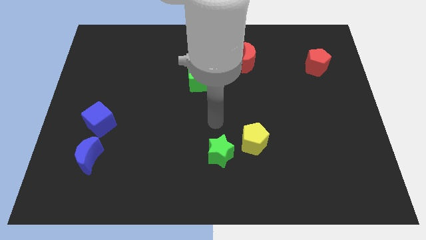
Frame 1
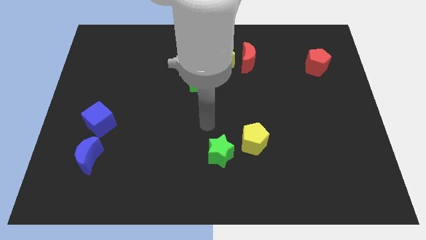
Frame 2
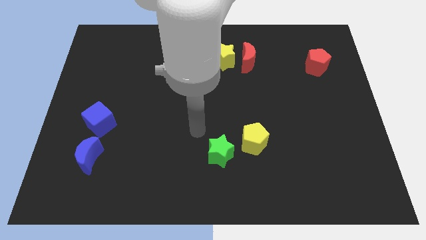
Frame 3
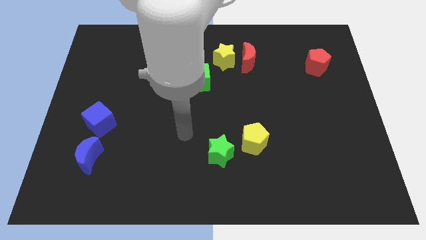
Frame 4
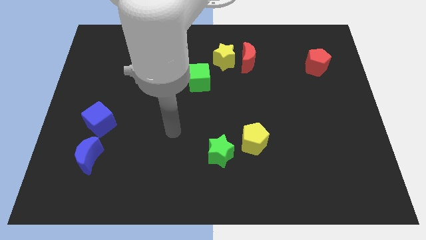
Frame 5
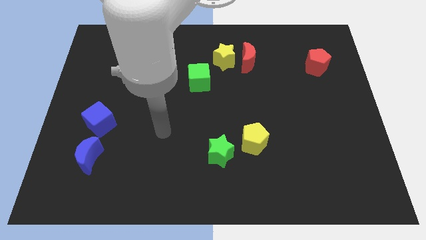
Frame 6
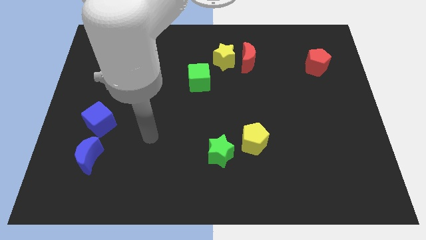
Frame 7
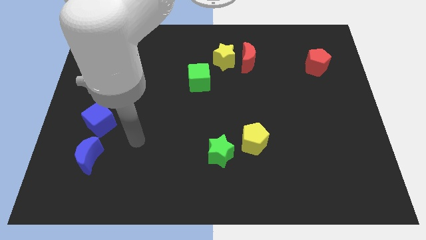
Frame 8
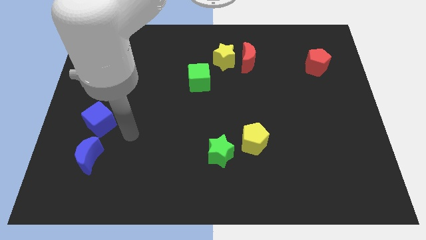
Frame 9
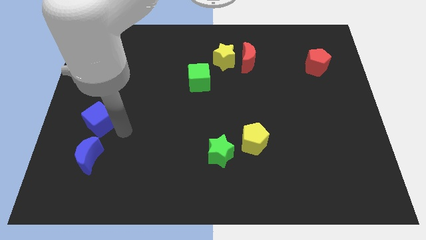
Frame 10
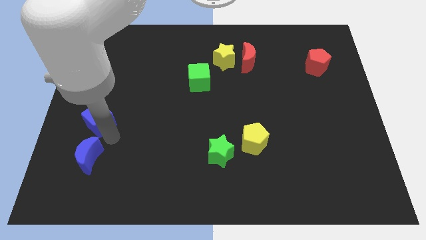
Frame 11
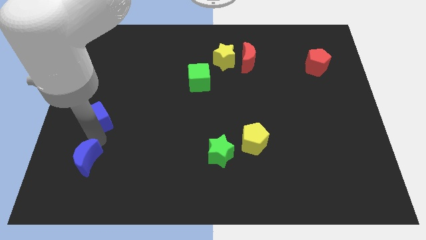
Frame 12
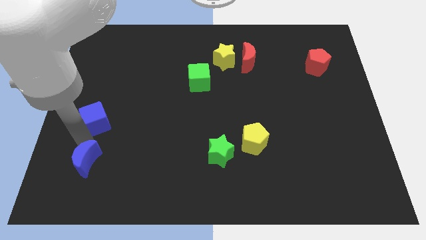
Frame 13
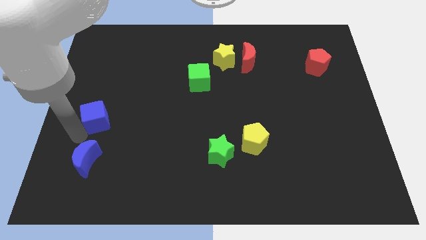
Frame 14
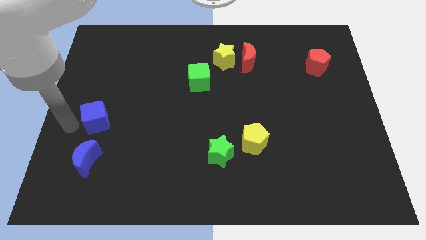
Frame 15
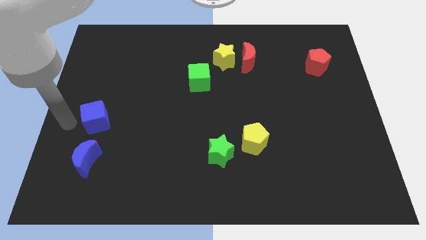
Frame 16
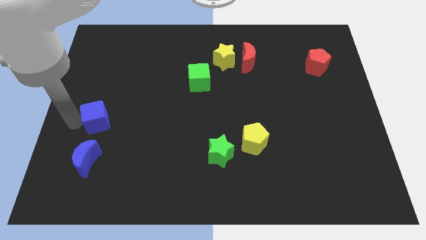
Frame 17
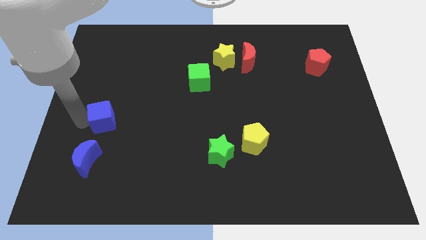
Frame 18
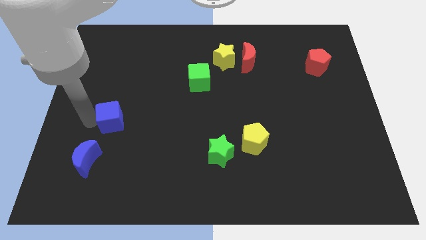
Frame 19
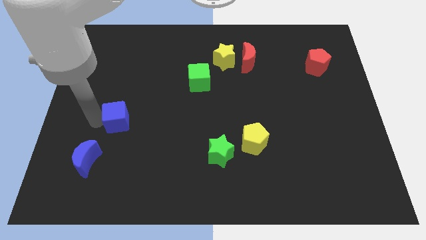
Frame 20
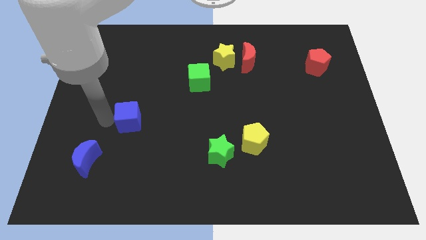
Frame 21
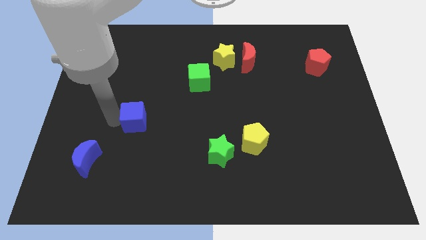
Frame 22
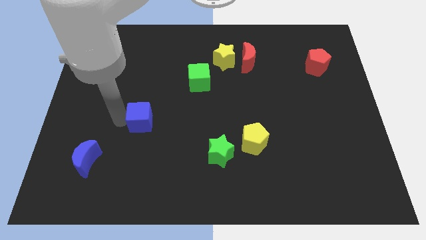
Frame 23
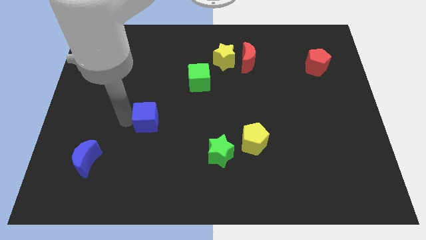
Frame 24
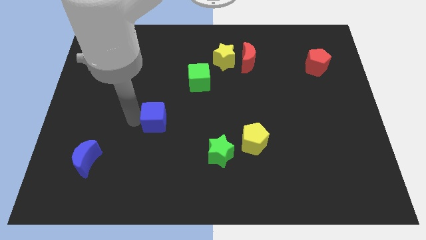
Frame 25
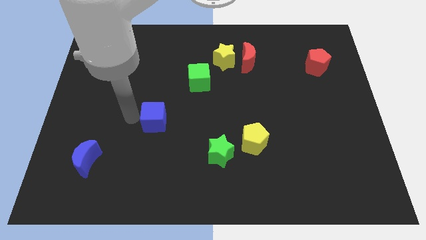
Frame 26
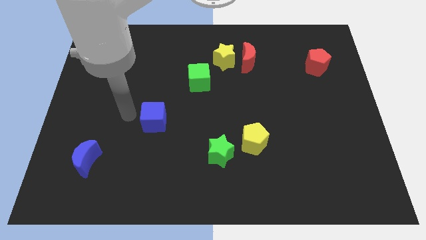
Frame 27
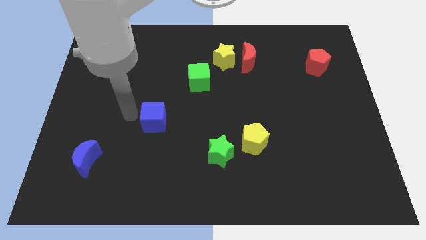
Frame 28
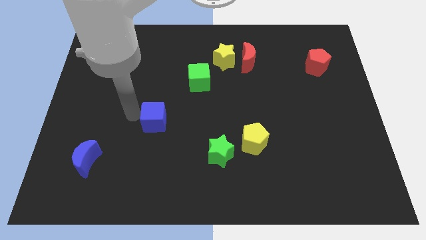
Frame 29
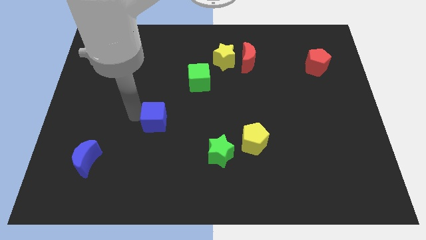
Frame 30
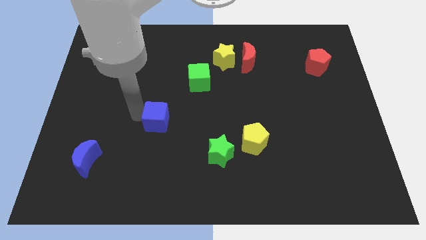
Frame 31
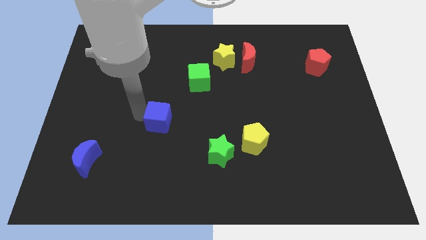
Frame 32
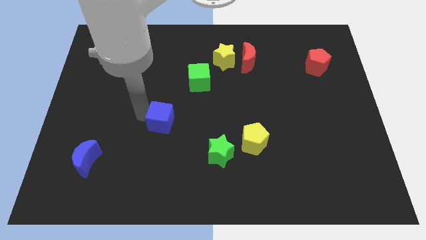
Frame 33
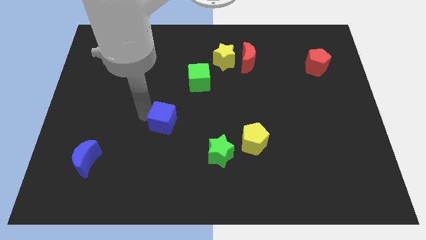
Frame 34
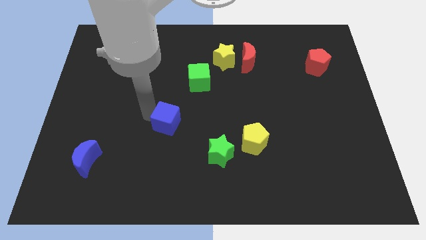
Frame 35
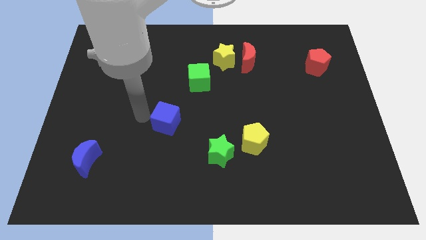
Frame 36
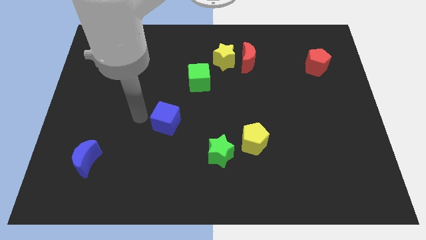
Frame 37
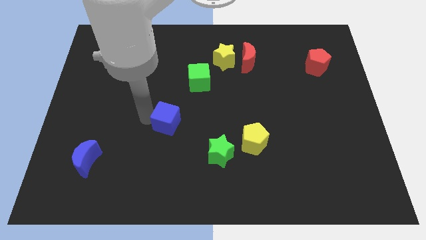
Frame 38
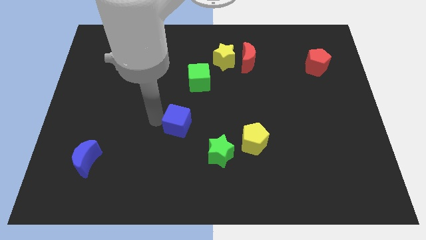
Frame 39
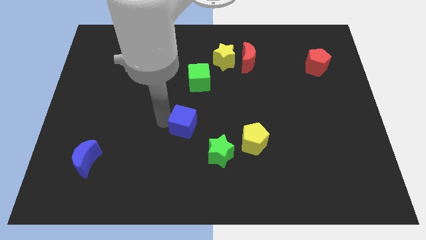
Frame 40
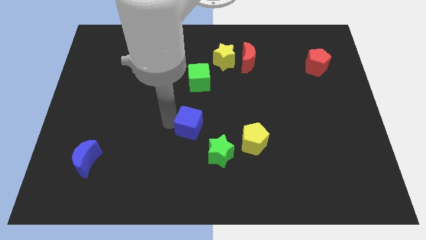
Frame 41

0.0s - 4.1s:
move the blue cube right

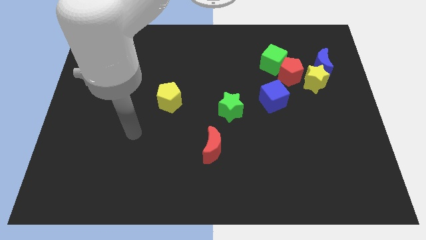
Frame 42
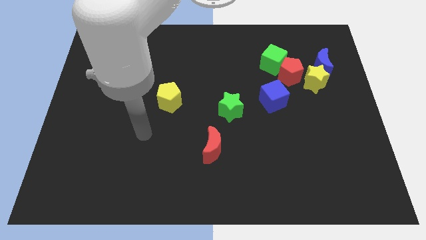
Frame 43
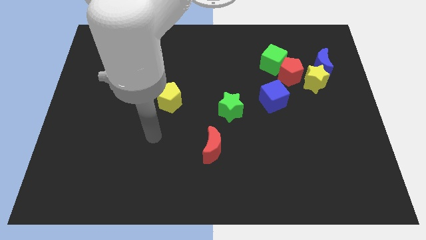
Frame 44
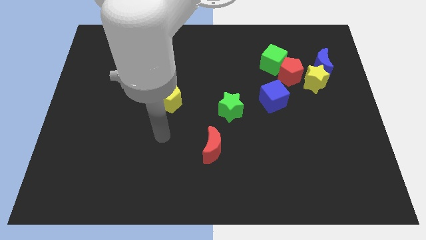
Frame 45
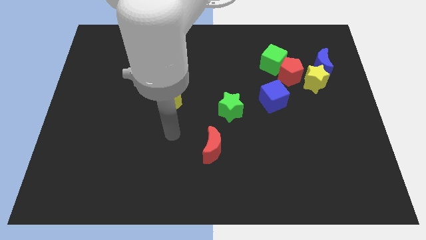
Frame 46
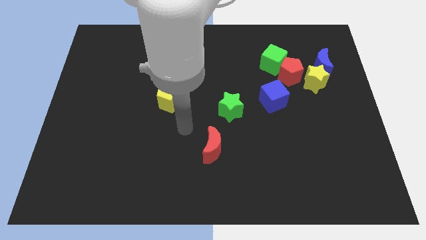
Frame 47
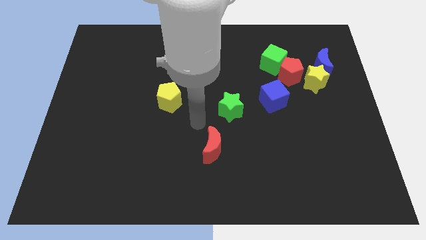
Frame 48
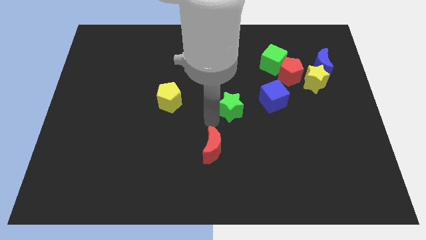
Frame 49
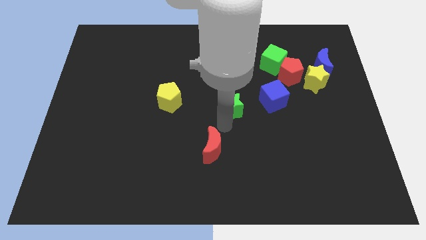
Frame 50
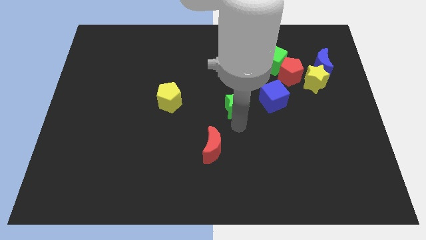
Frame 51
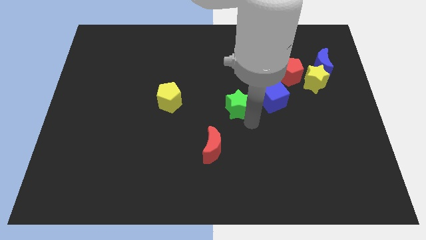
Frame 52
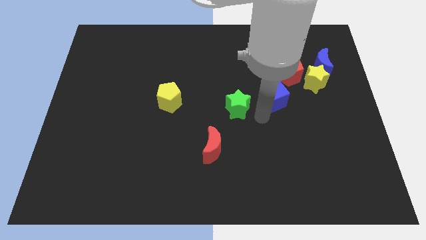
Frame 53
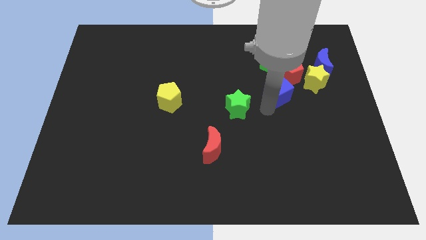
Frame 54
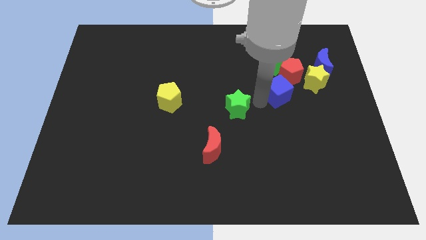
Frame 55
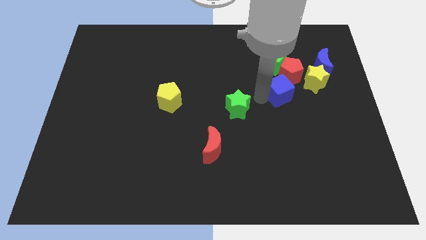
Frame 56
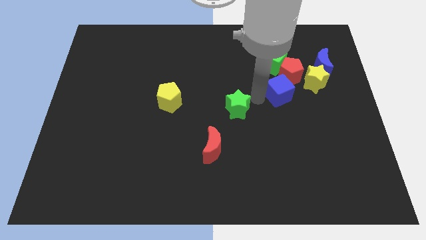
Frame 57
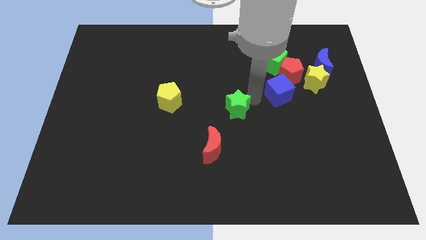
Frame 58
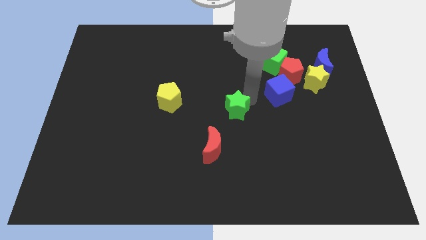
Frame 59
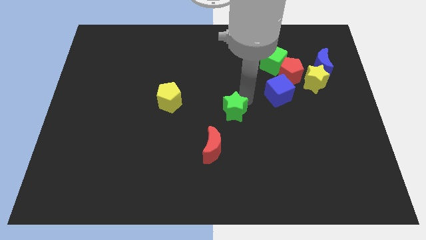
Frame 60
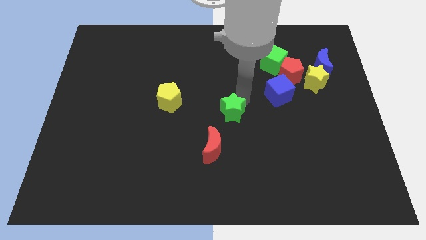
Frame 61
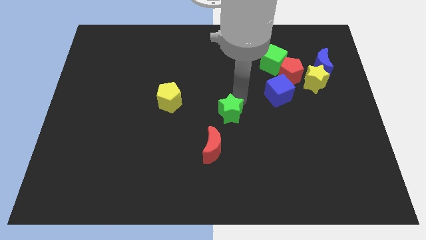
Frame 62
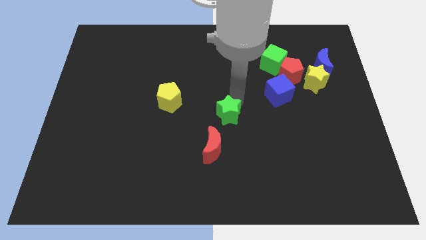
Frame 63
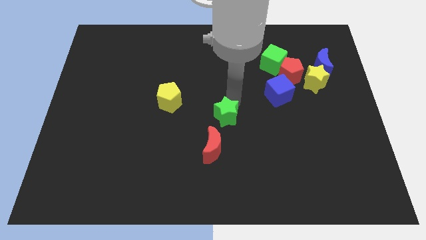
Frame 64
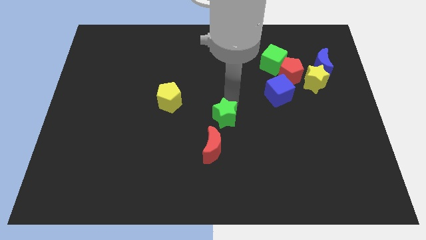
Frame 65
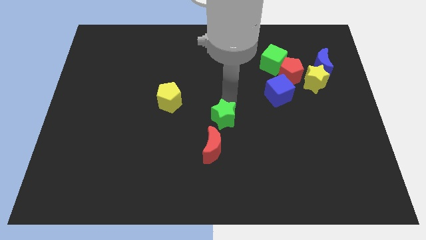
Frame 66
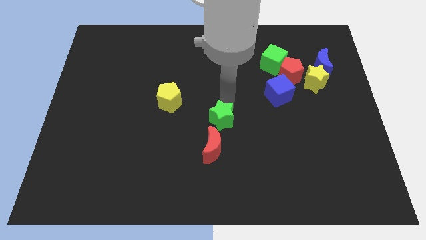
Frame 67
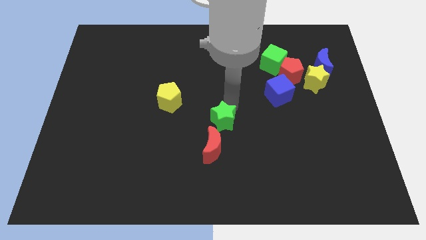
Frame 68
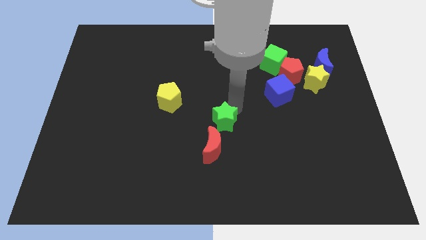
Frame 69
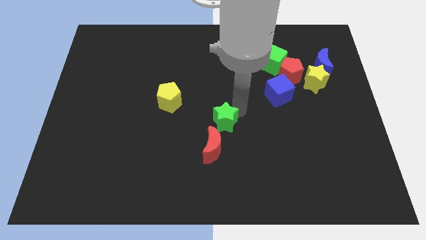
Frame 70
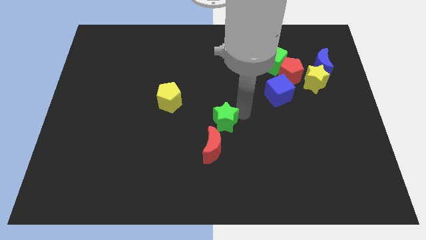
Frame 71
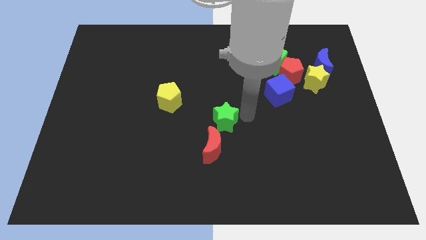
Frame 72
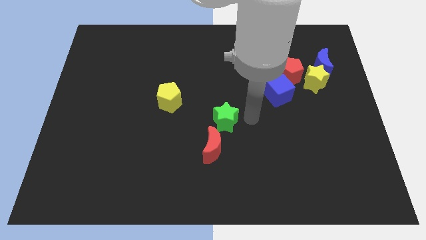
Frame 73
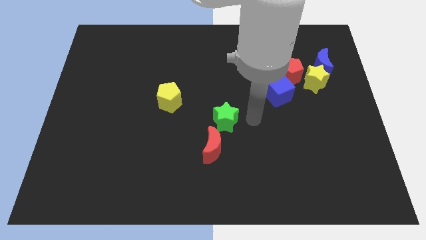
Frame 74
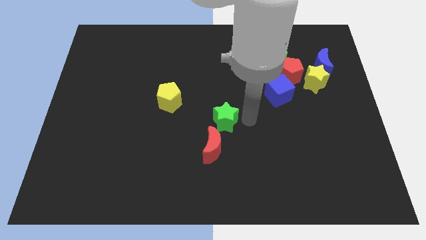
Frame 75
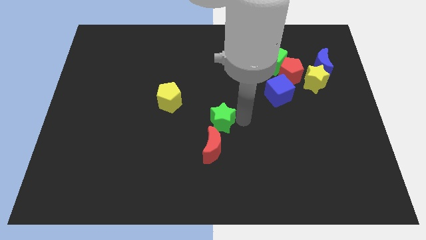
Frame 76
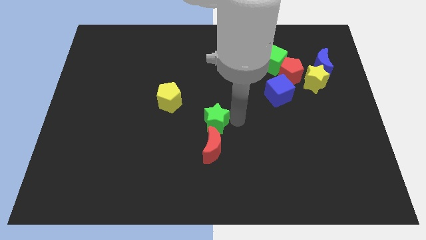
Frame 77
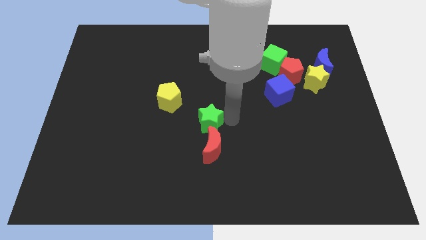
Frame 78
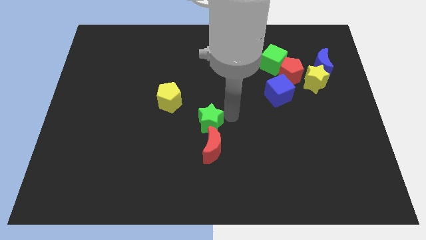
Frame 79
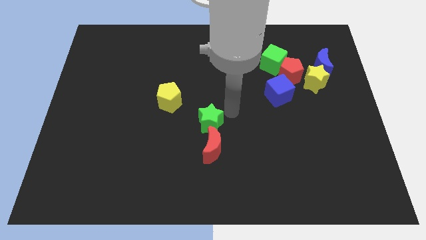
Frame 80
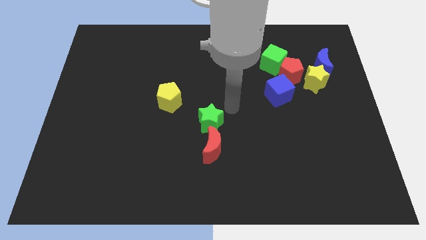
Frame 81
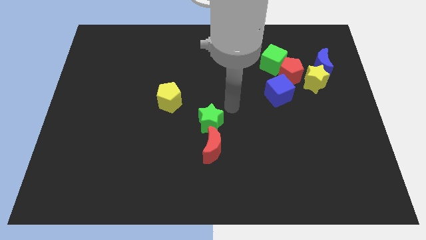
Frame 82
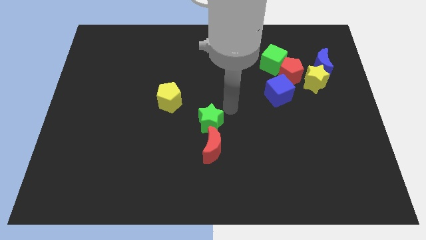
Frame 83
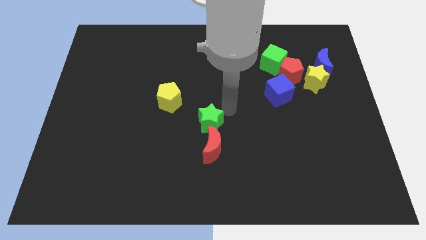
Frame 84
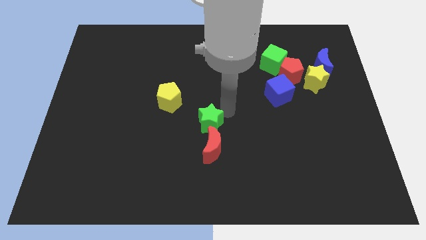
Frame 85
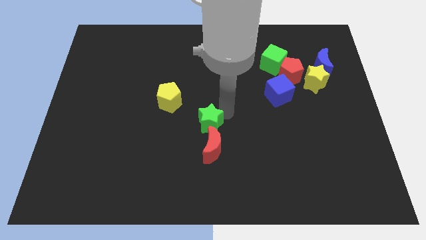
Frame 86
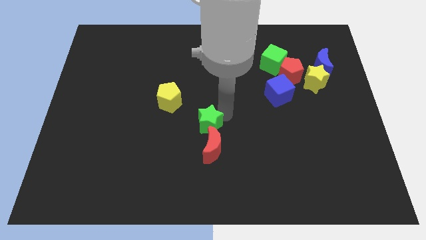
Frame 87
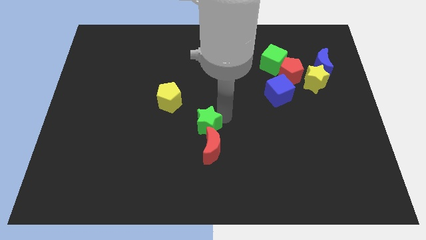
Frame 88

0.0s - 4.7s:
slightly push the green star downwards and to the left diagonally
